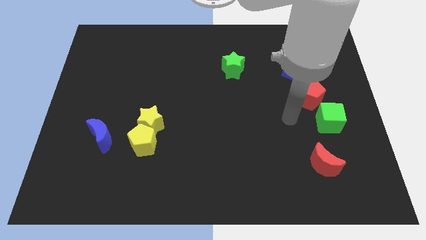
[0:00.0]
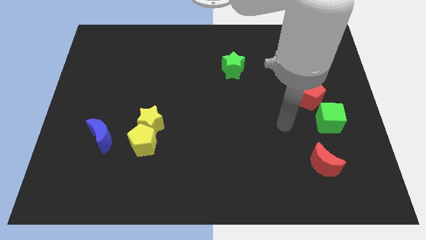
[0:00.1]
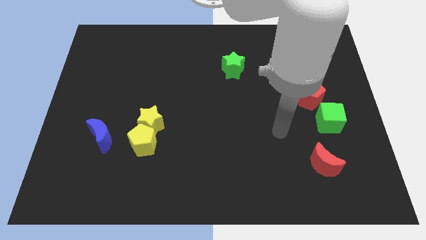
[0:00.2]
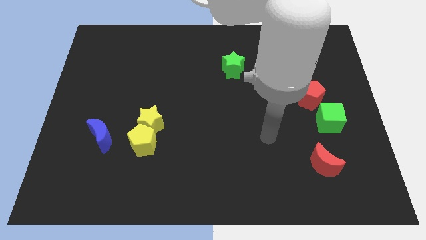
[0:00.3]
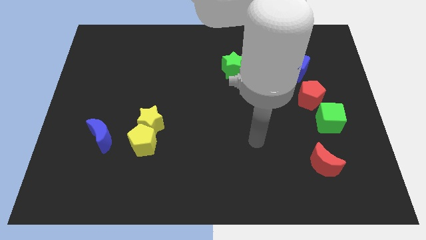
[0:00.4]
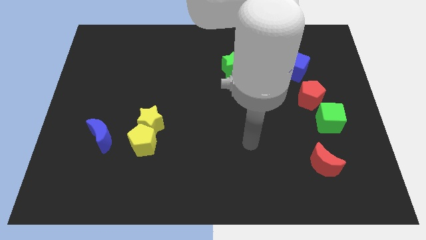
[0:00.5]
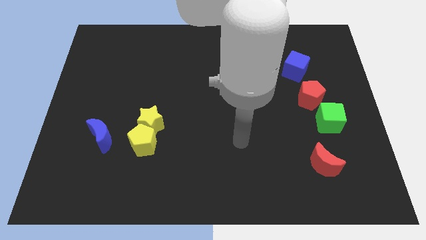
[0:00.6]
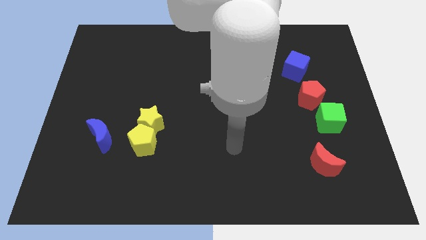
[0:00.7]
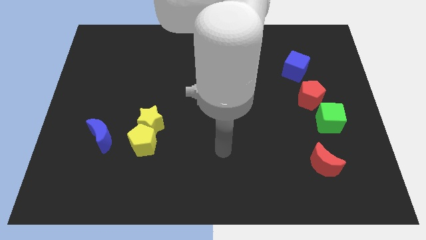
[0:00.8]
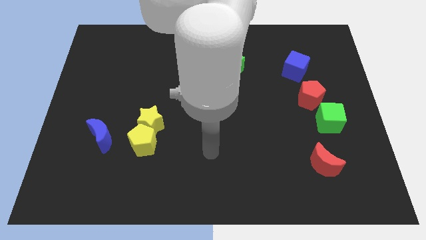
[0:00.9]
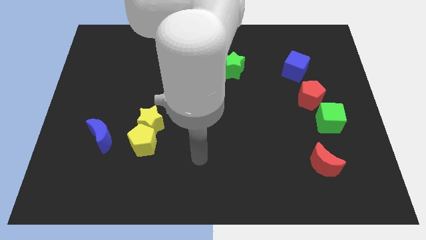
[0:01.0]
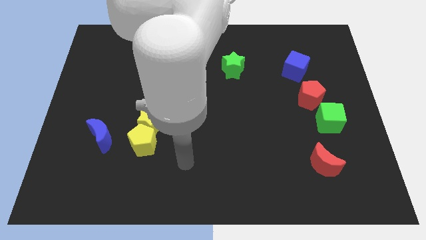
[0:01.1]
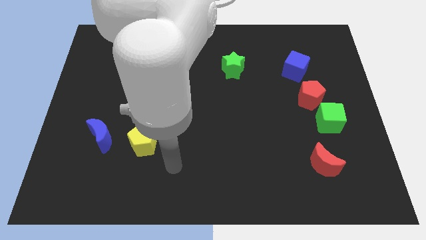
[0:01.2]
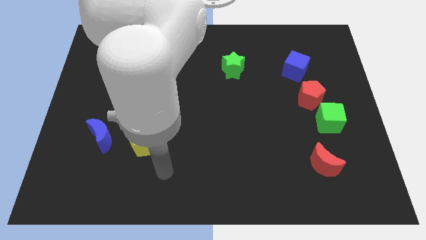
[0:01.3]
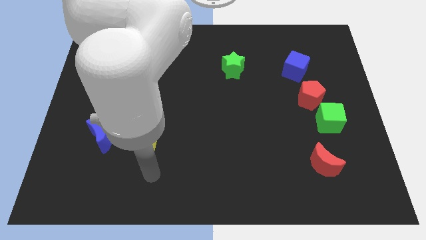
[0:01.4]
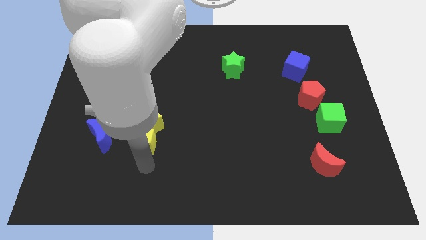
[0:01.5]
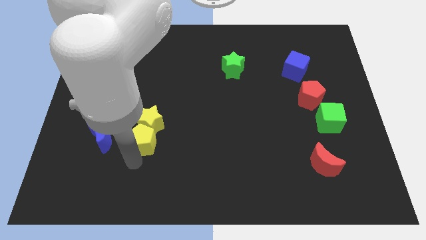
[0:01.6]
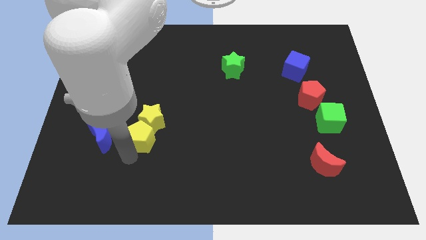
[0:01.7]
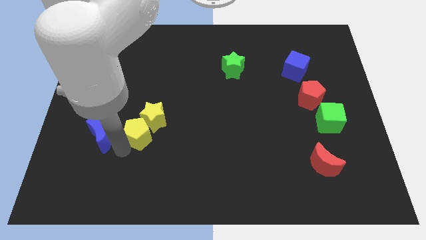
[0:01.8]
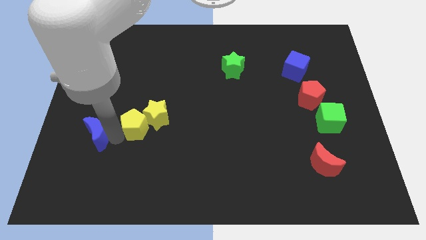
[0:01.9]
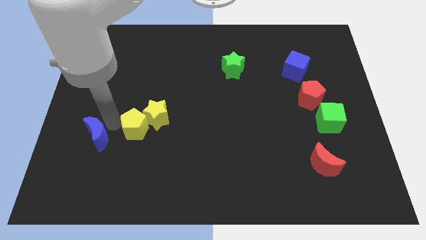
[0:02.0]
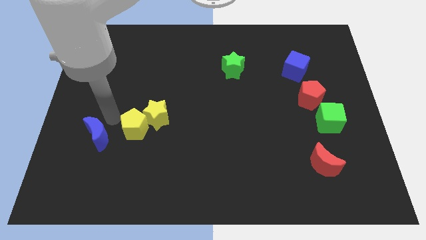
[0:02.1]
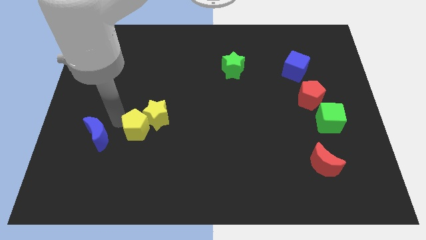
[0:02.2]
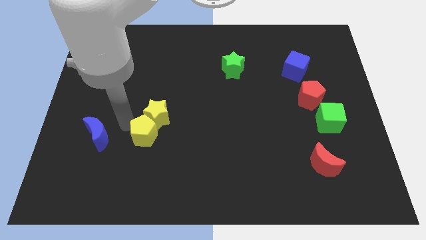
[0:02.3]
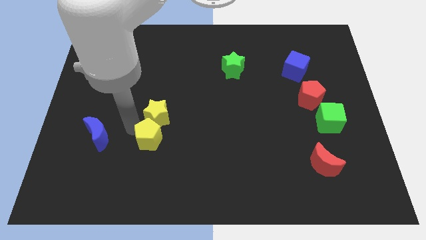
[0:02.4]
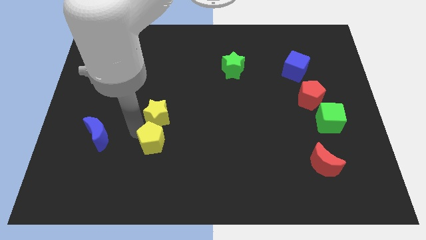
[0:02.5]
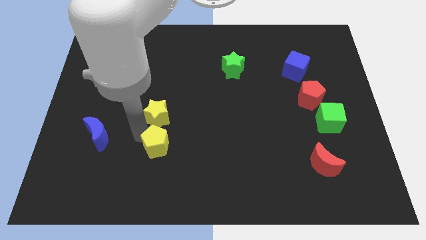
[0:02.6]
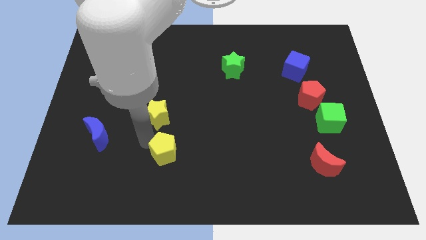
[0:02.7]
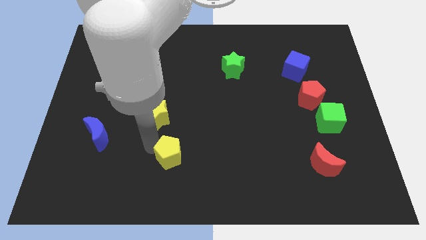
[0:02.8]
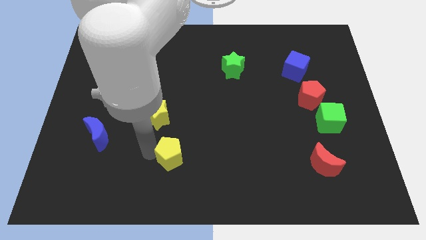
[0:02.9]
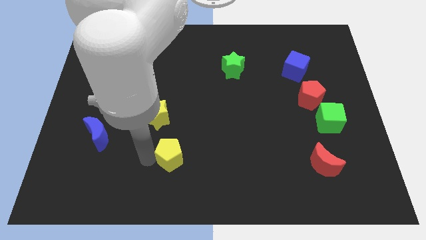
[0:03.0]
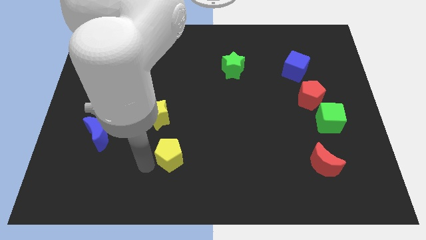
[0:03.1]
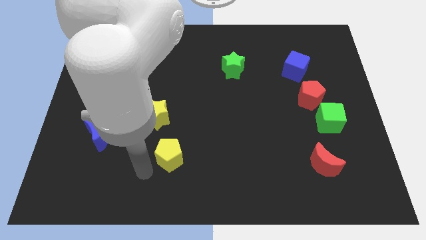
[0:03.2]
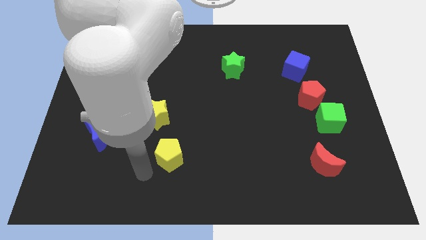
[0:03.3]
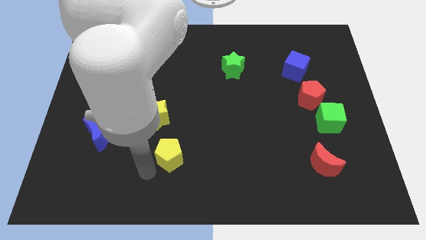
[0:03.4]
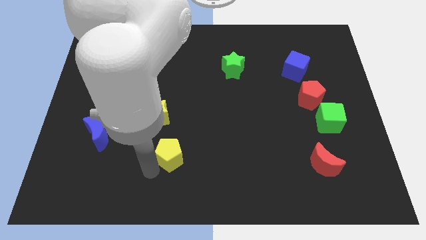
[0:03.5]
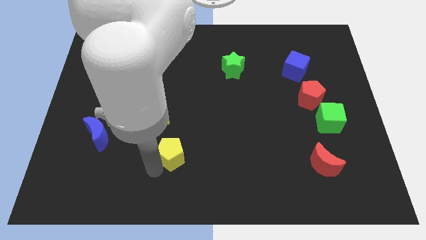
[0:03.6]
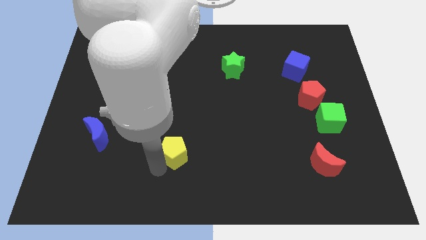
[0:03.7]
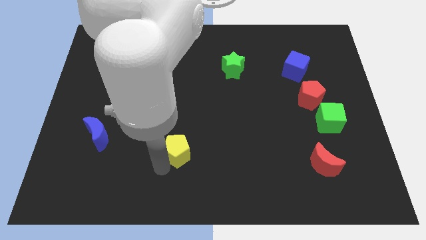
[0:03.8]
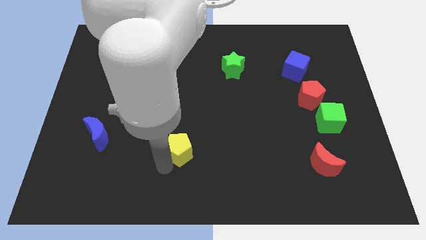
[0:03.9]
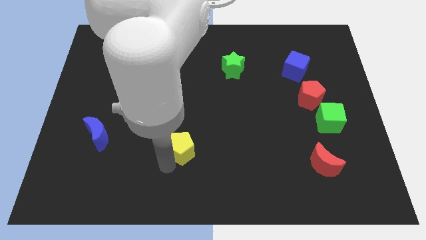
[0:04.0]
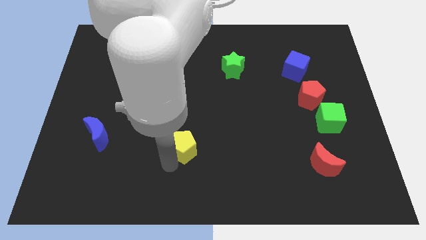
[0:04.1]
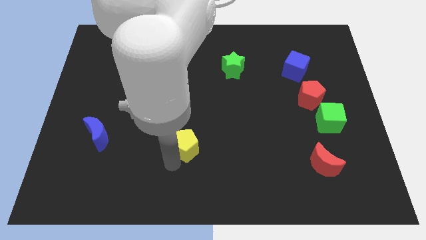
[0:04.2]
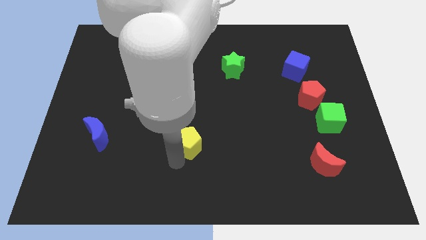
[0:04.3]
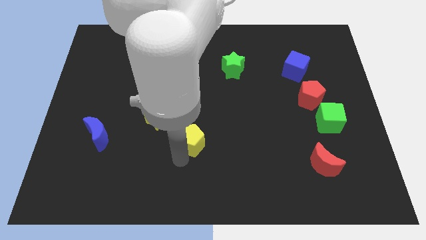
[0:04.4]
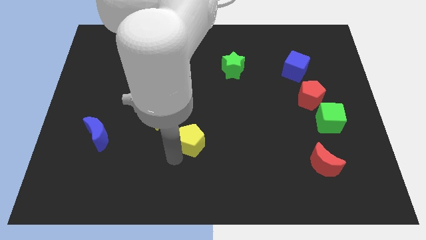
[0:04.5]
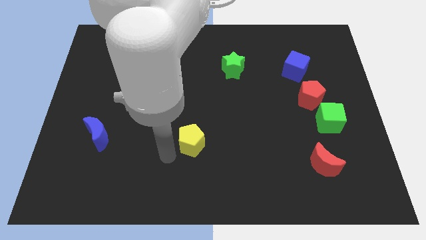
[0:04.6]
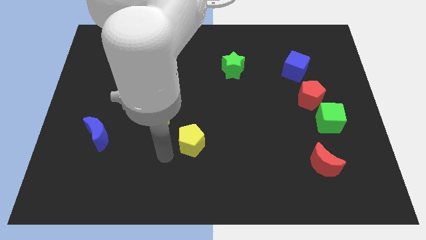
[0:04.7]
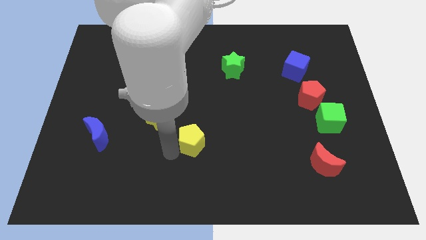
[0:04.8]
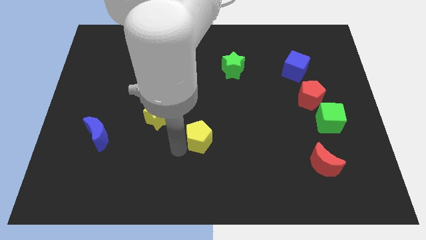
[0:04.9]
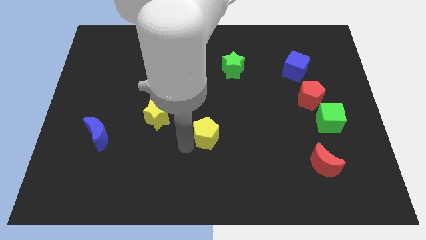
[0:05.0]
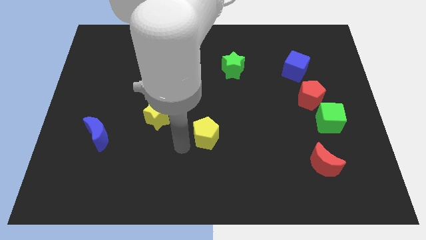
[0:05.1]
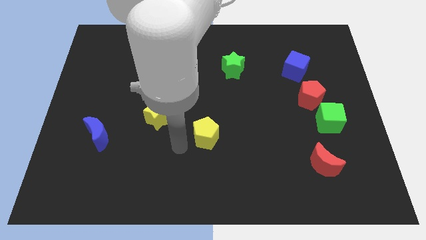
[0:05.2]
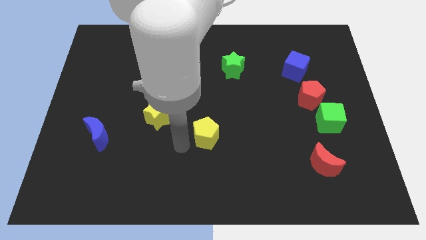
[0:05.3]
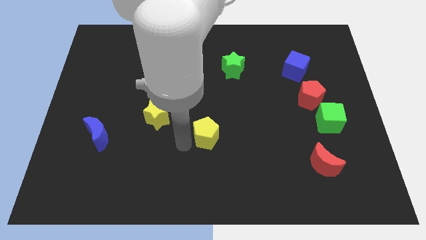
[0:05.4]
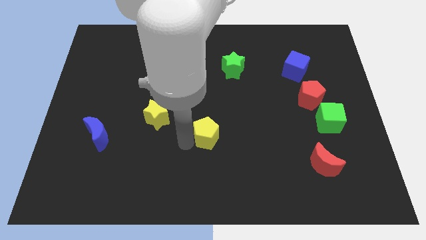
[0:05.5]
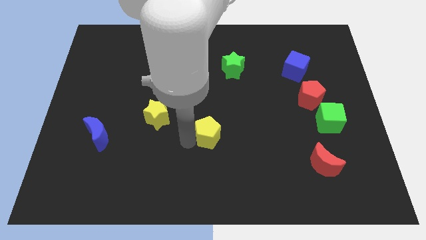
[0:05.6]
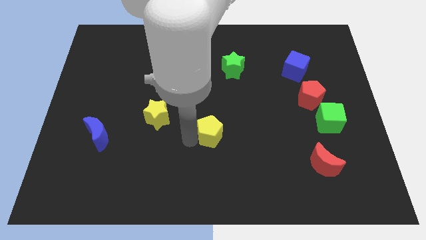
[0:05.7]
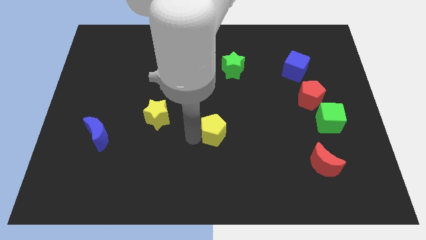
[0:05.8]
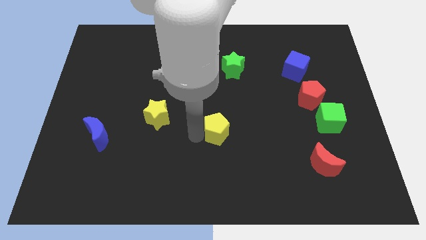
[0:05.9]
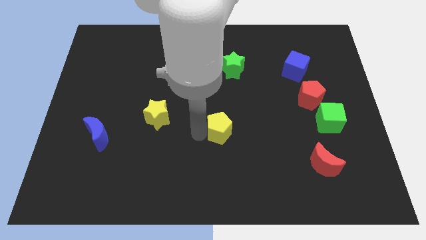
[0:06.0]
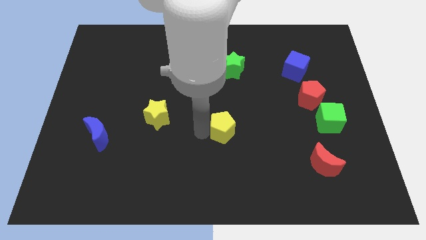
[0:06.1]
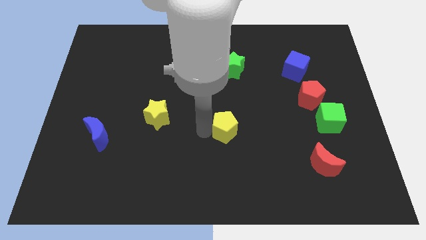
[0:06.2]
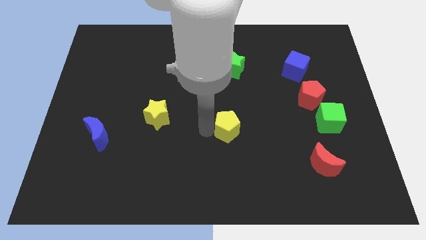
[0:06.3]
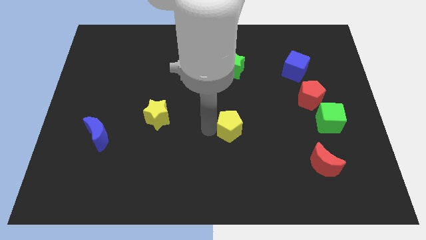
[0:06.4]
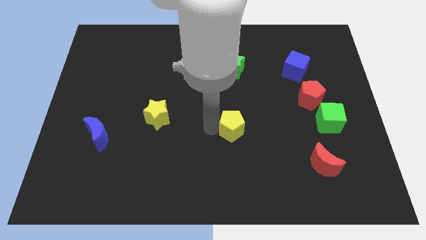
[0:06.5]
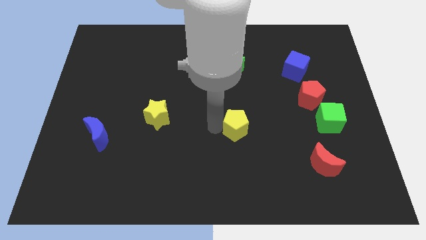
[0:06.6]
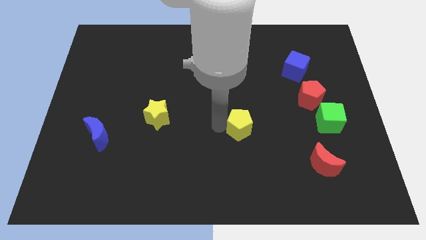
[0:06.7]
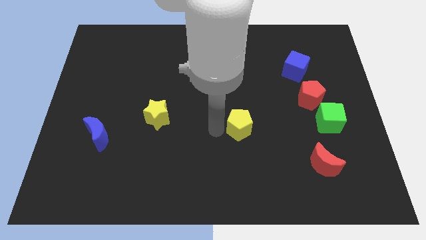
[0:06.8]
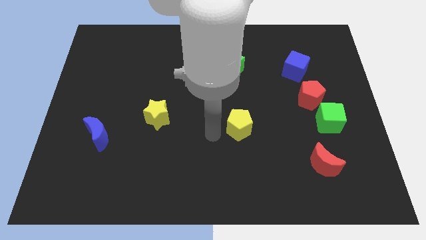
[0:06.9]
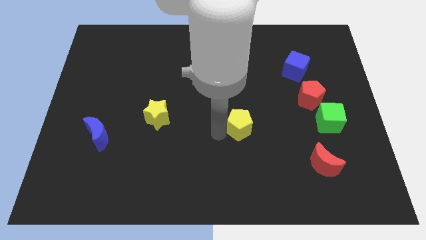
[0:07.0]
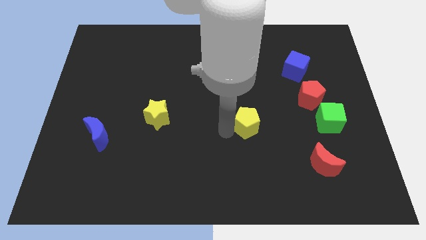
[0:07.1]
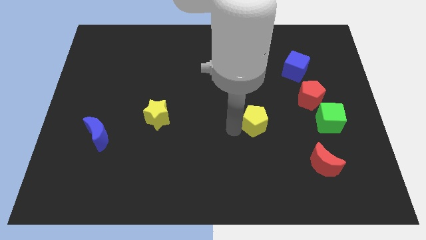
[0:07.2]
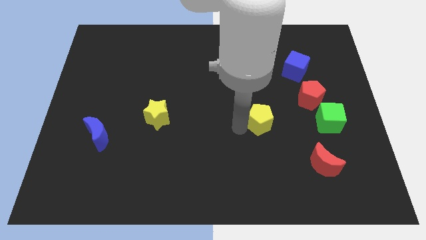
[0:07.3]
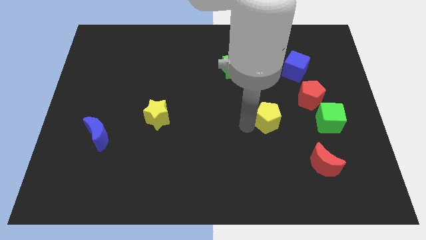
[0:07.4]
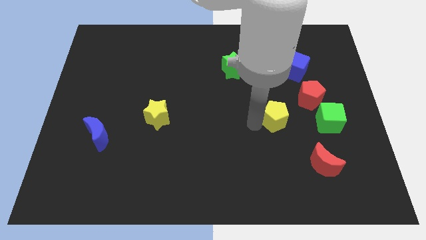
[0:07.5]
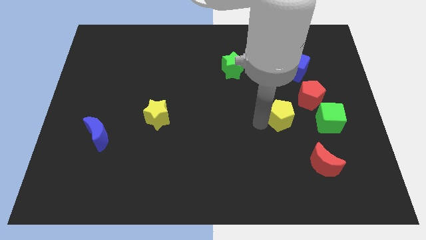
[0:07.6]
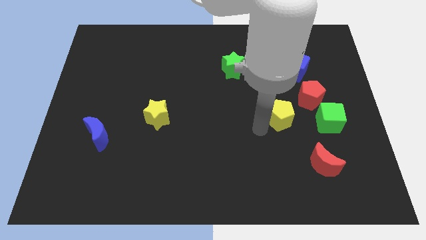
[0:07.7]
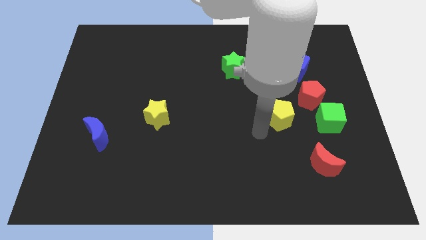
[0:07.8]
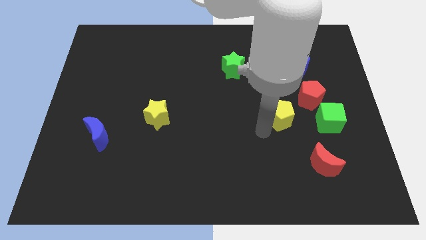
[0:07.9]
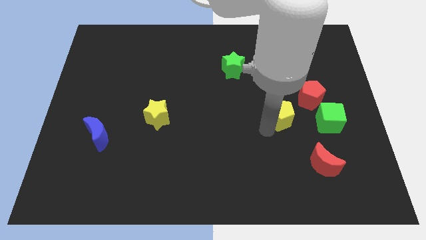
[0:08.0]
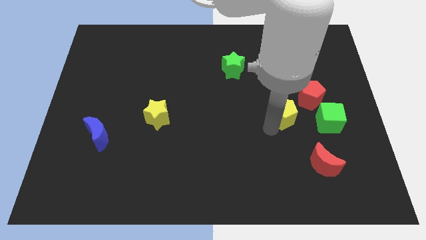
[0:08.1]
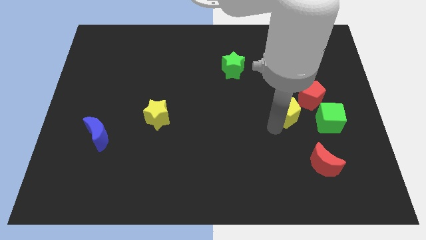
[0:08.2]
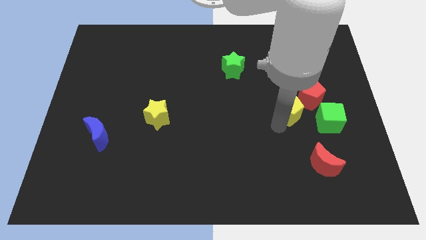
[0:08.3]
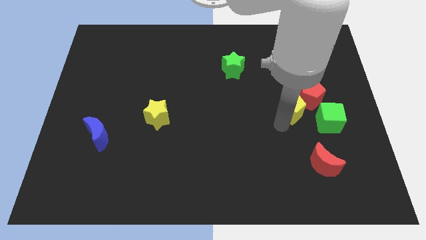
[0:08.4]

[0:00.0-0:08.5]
push the yellow pentagon close to the red pentagon
